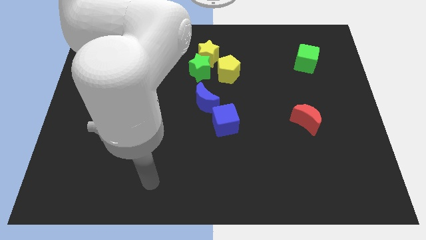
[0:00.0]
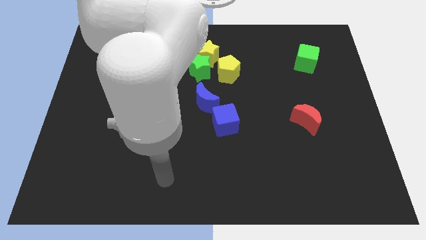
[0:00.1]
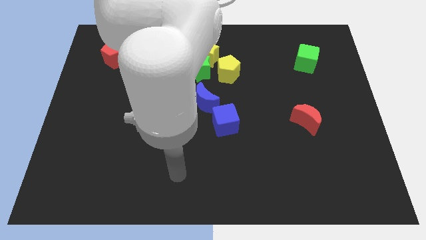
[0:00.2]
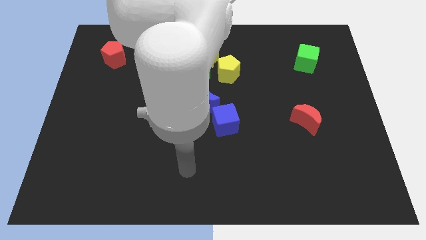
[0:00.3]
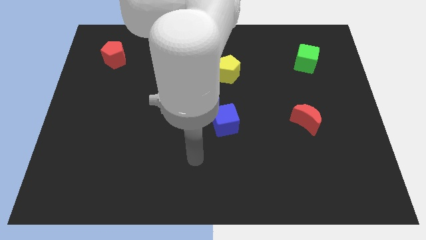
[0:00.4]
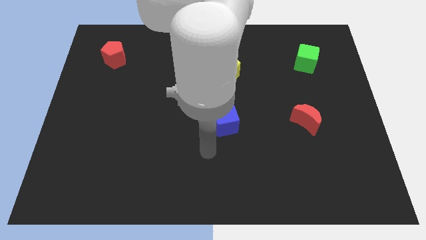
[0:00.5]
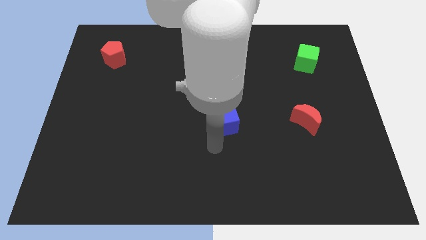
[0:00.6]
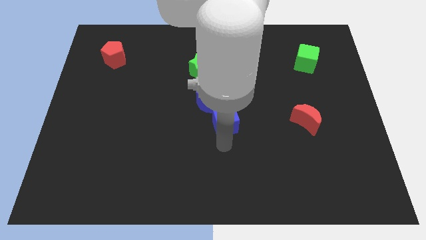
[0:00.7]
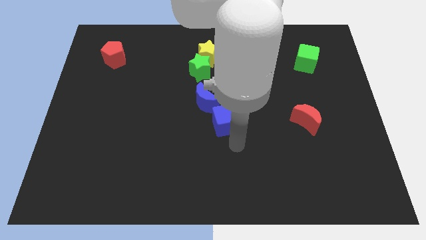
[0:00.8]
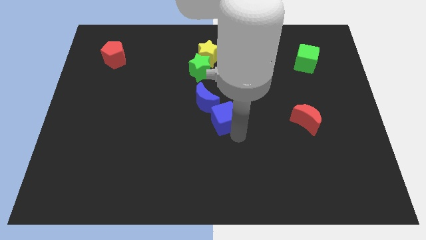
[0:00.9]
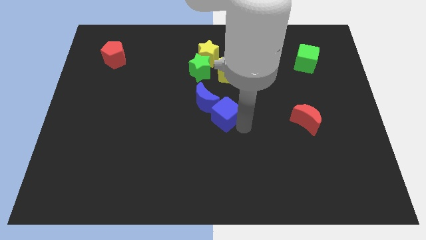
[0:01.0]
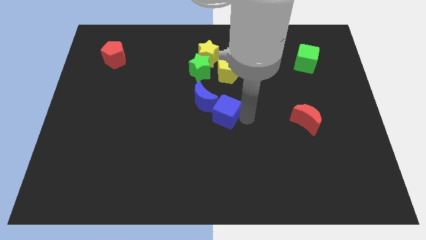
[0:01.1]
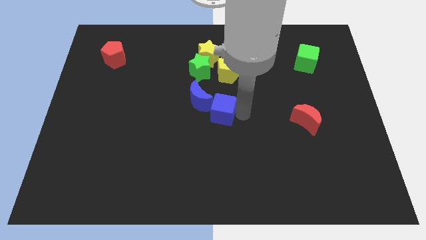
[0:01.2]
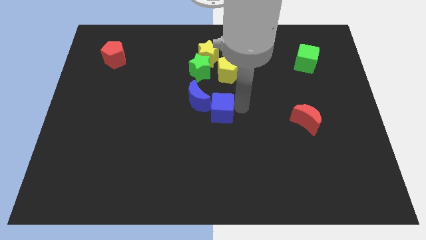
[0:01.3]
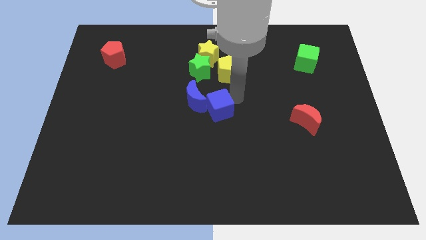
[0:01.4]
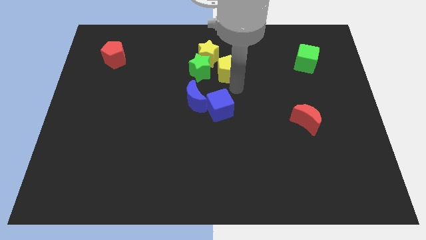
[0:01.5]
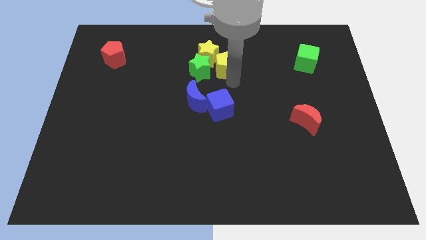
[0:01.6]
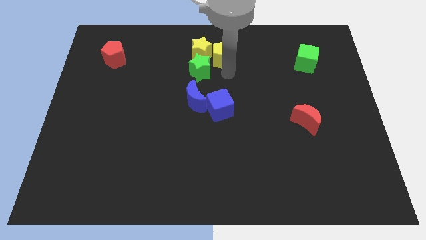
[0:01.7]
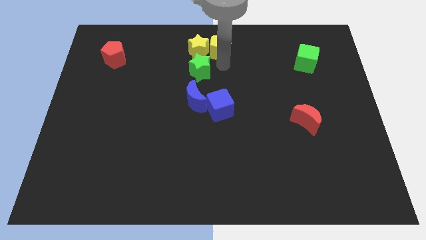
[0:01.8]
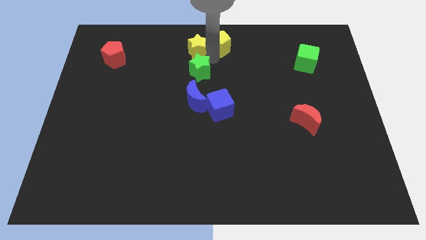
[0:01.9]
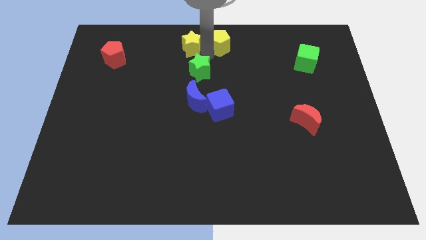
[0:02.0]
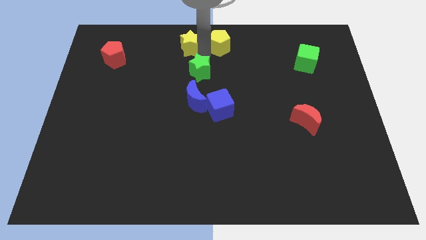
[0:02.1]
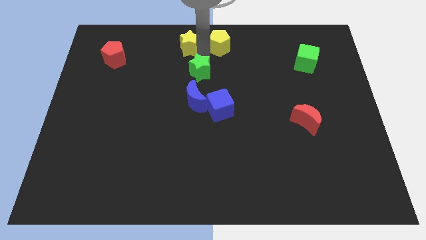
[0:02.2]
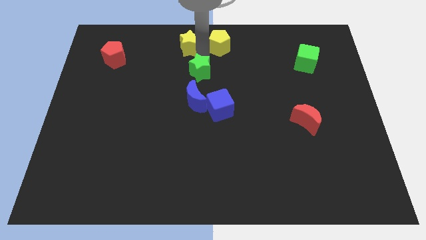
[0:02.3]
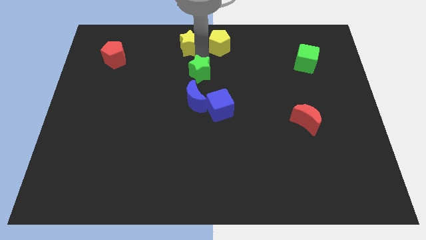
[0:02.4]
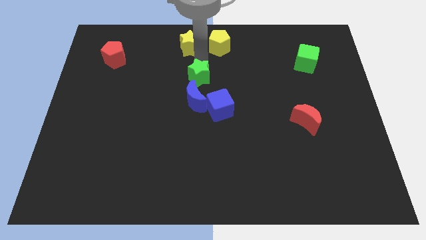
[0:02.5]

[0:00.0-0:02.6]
pull the green star apart from the yellow star and yellow pentagon

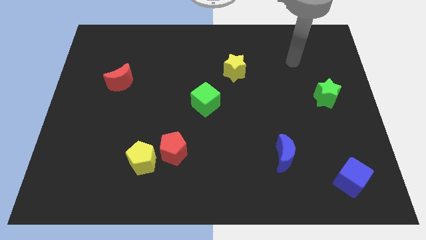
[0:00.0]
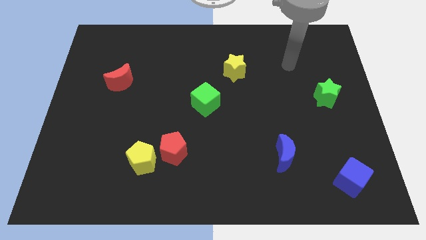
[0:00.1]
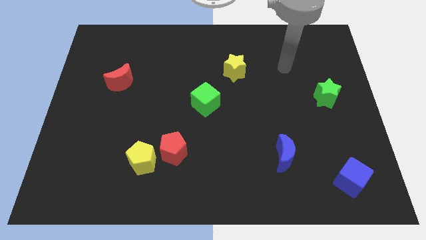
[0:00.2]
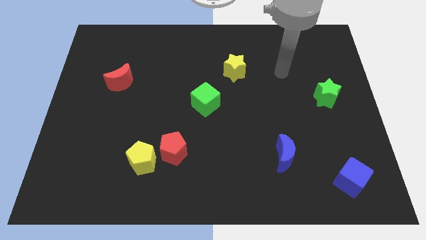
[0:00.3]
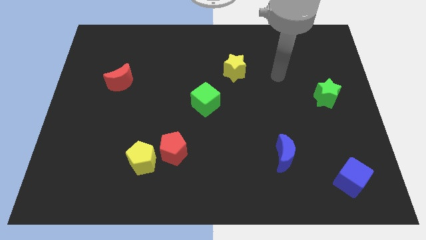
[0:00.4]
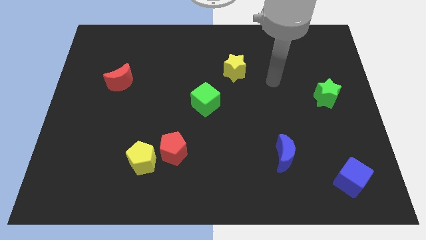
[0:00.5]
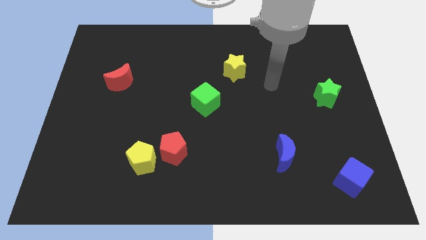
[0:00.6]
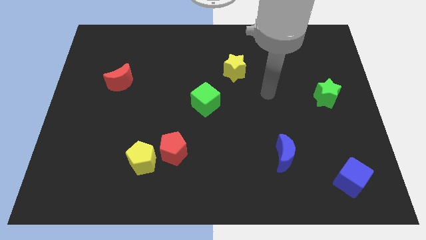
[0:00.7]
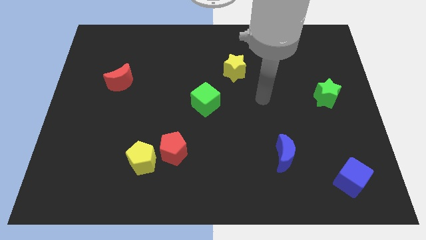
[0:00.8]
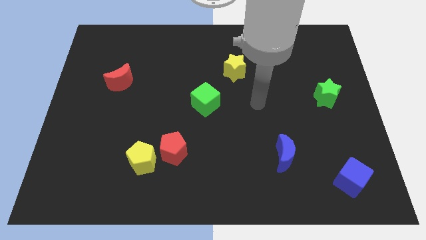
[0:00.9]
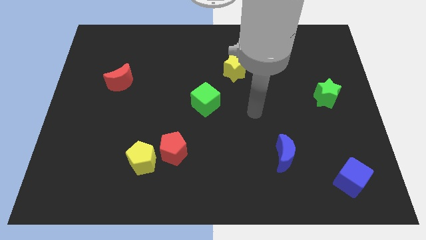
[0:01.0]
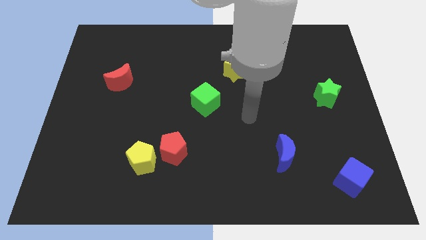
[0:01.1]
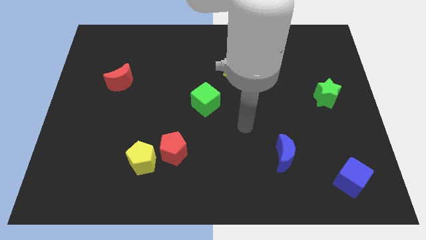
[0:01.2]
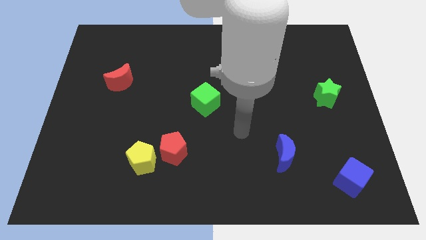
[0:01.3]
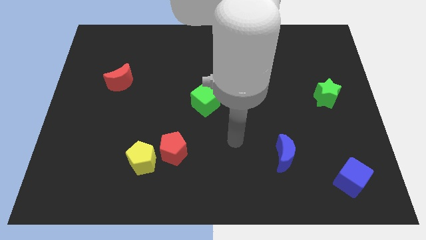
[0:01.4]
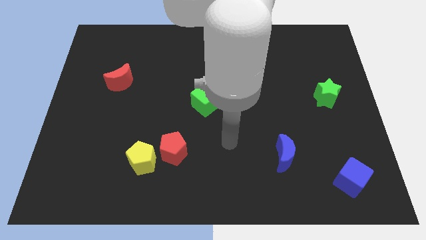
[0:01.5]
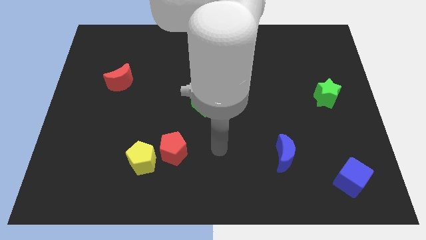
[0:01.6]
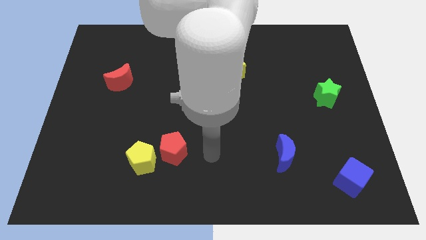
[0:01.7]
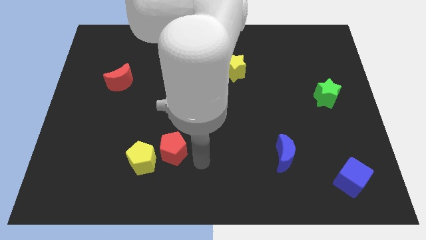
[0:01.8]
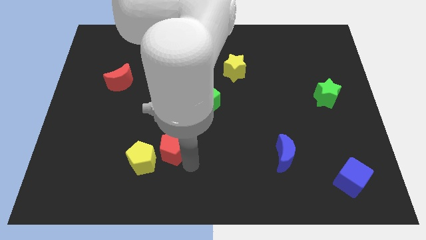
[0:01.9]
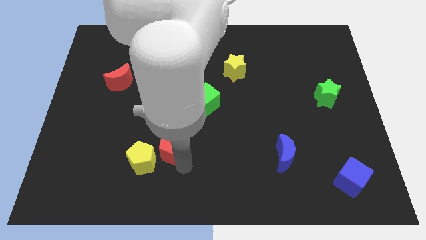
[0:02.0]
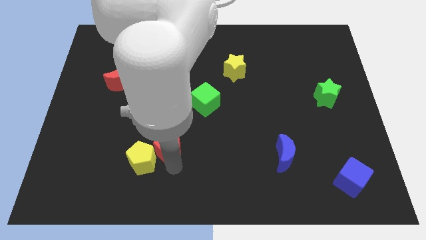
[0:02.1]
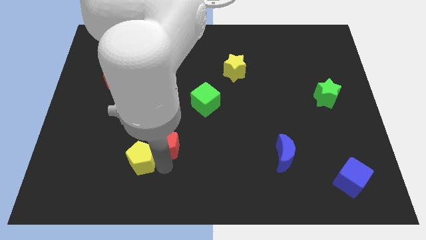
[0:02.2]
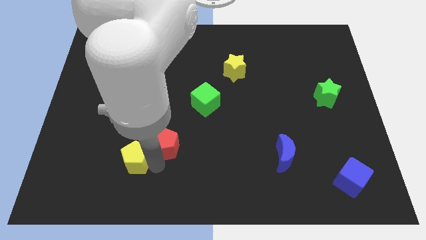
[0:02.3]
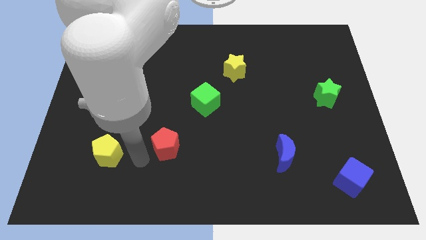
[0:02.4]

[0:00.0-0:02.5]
move the red pentagon away from the yellow pentagon

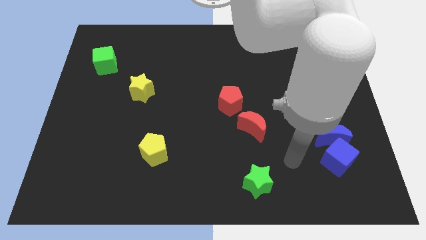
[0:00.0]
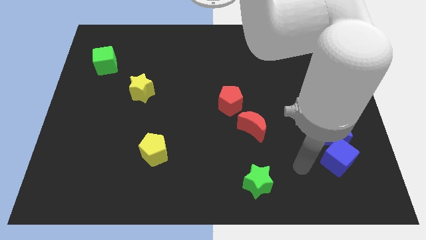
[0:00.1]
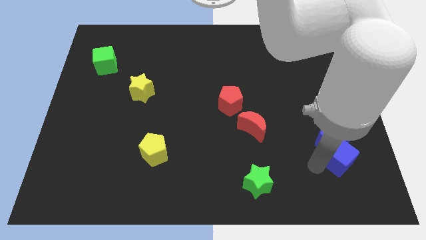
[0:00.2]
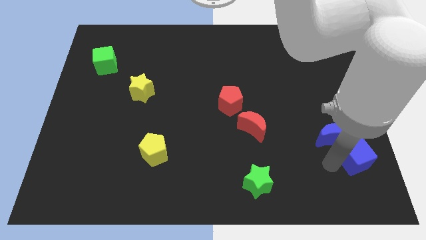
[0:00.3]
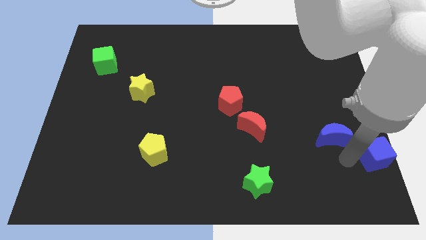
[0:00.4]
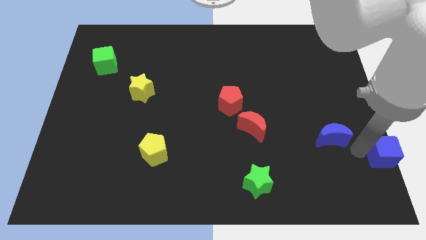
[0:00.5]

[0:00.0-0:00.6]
separate the blue moon from the blue cube

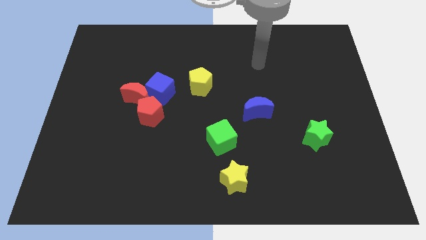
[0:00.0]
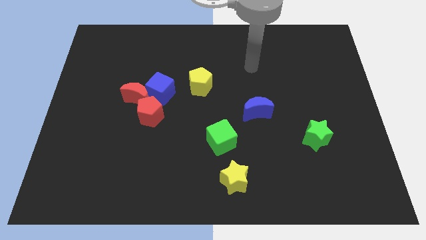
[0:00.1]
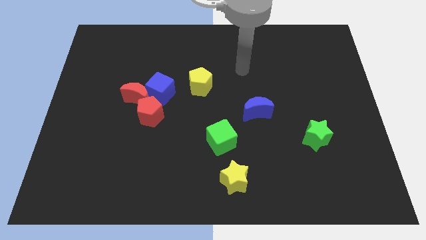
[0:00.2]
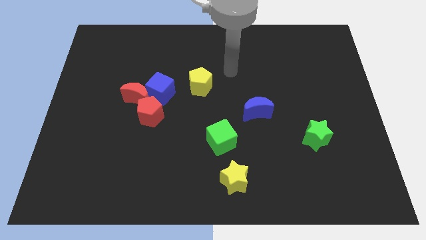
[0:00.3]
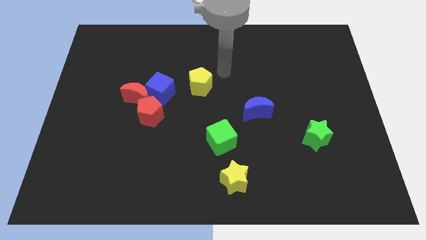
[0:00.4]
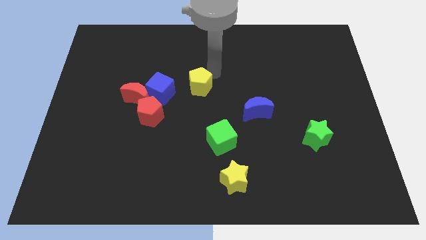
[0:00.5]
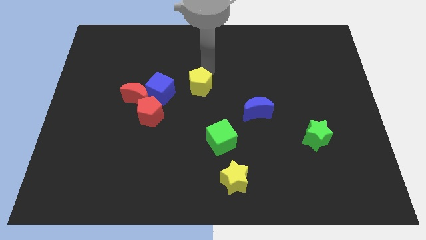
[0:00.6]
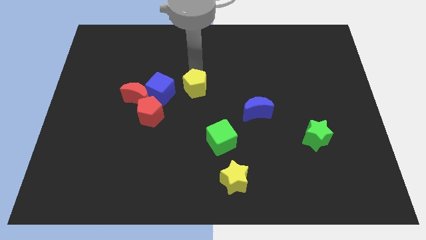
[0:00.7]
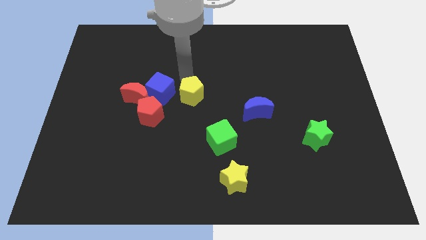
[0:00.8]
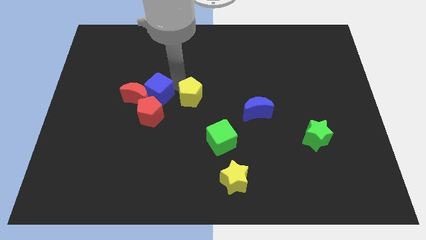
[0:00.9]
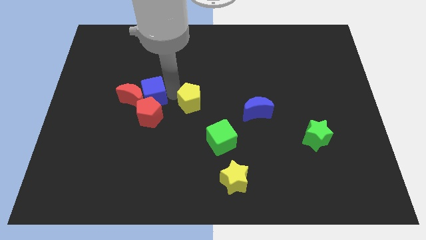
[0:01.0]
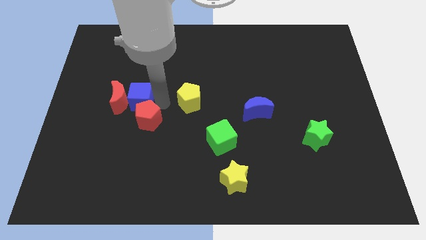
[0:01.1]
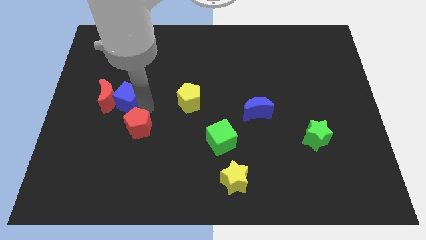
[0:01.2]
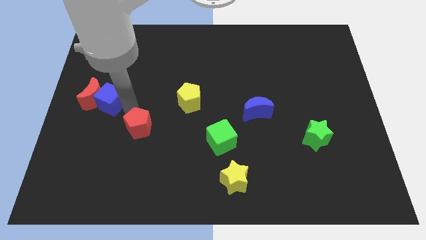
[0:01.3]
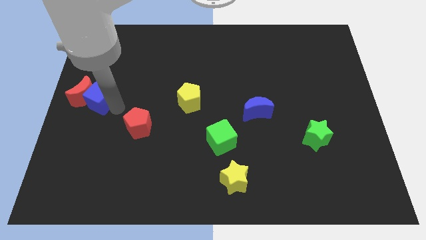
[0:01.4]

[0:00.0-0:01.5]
pull the red moon apart from the blue cube and red pentagon

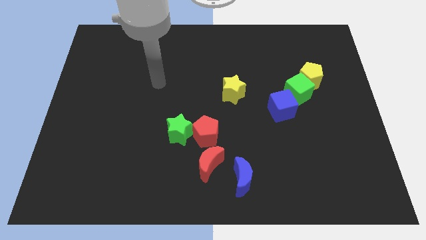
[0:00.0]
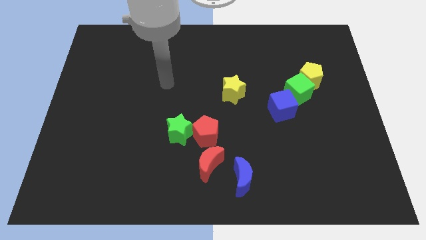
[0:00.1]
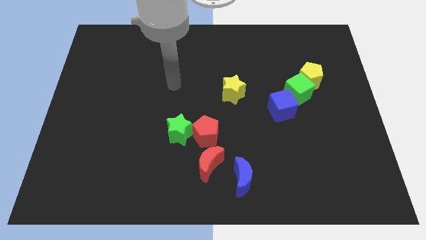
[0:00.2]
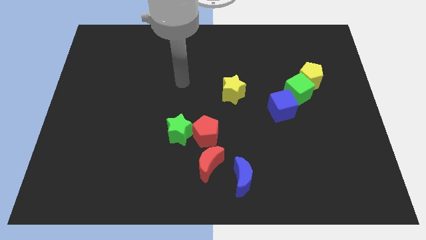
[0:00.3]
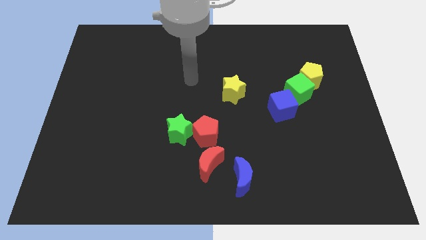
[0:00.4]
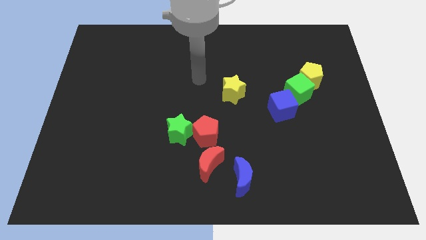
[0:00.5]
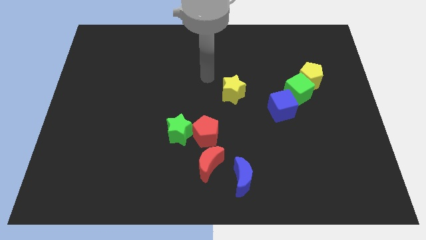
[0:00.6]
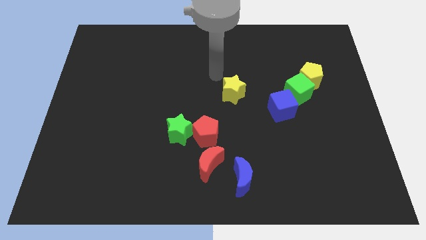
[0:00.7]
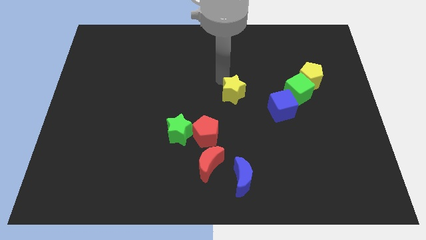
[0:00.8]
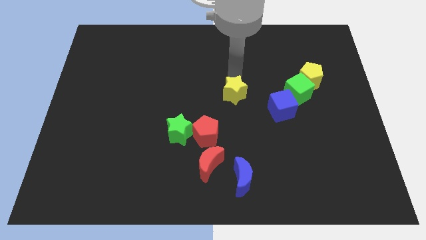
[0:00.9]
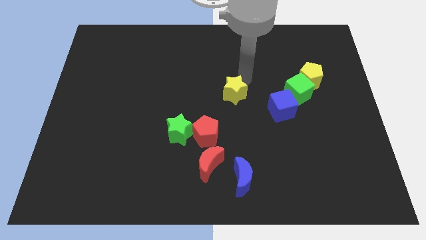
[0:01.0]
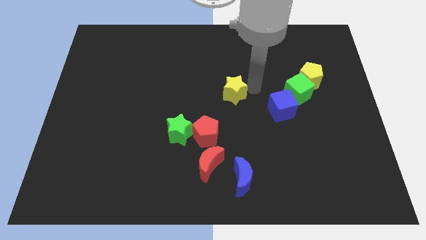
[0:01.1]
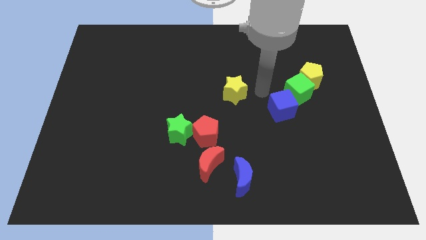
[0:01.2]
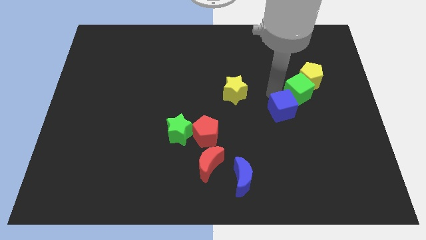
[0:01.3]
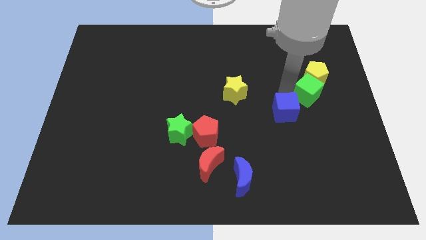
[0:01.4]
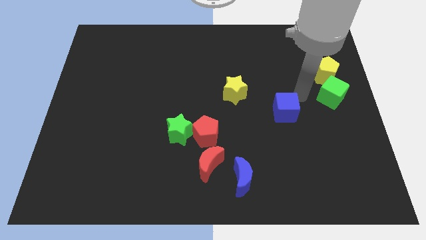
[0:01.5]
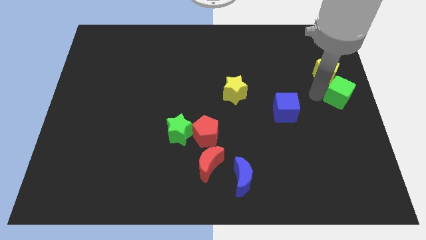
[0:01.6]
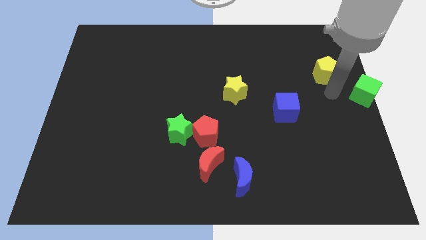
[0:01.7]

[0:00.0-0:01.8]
move the yellow pentagon away from the green cube

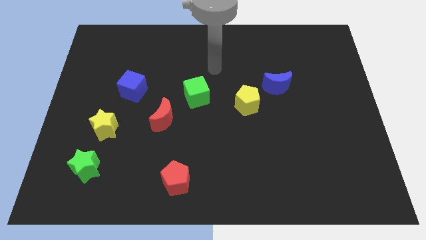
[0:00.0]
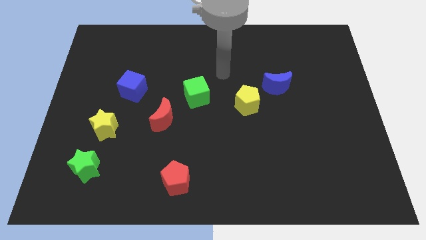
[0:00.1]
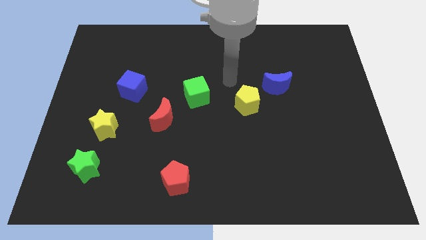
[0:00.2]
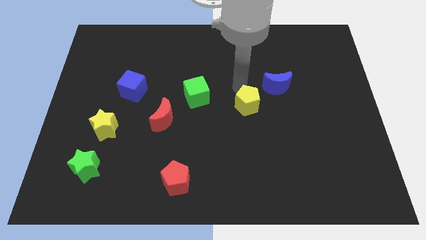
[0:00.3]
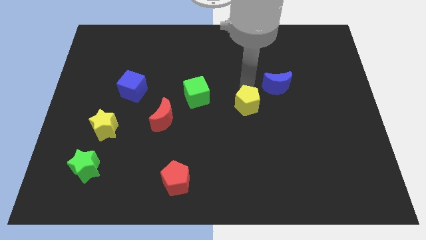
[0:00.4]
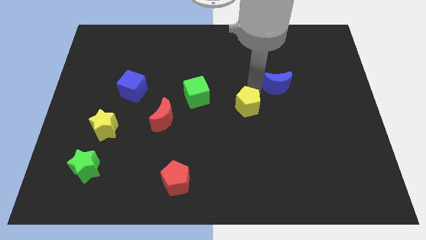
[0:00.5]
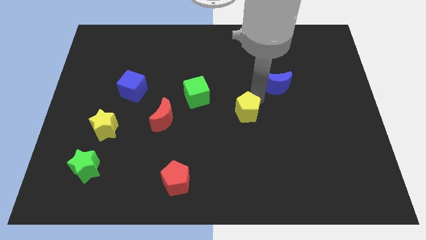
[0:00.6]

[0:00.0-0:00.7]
move the blue moon away from the yellow pentagon
